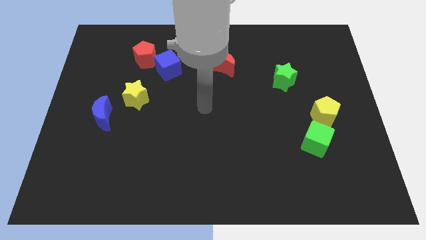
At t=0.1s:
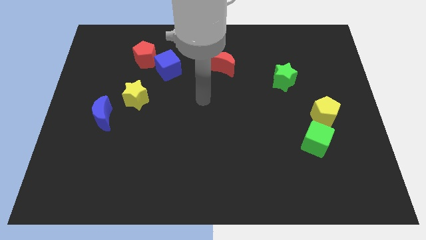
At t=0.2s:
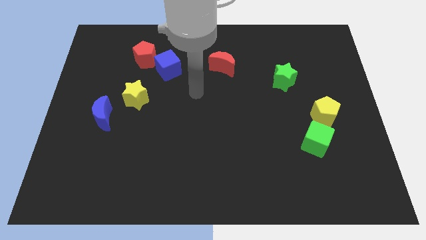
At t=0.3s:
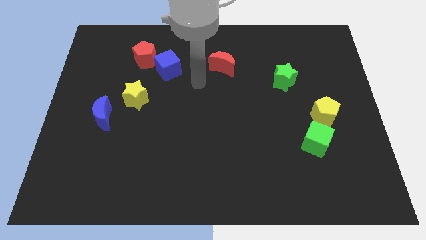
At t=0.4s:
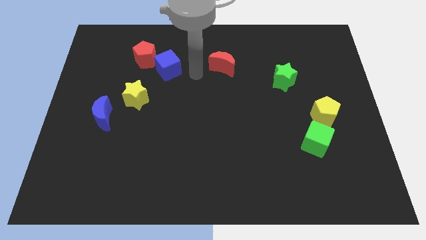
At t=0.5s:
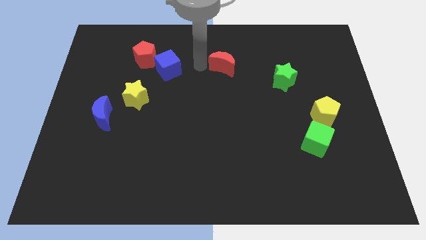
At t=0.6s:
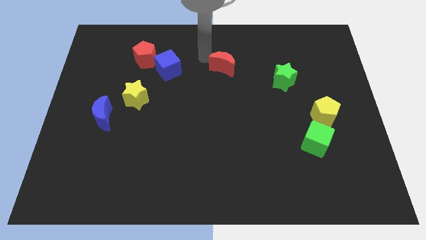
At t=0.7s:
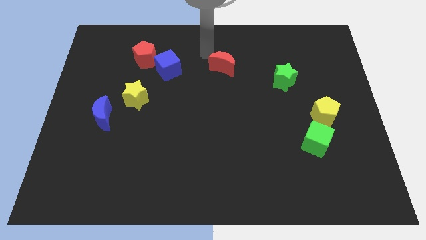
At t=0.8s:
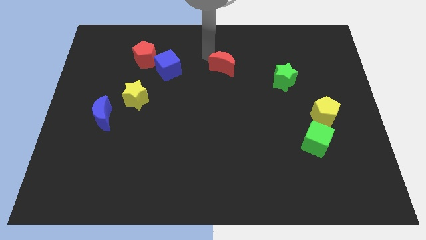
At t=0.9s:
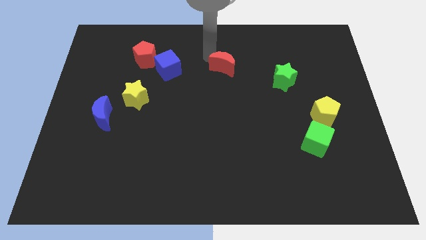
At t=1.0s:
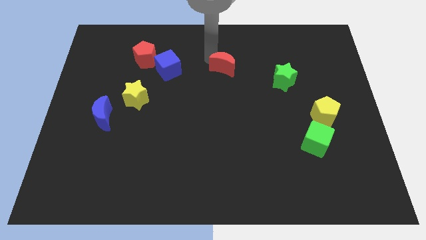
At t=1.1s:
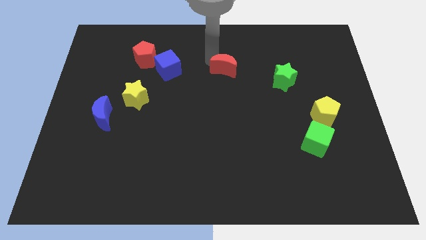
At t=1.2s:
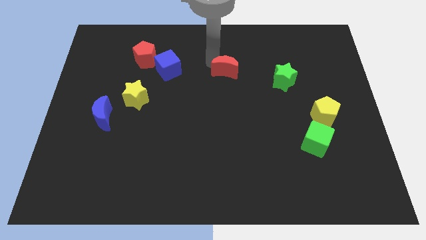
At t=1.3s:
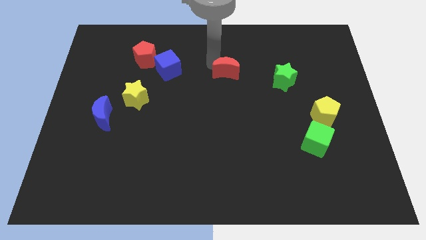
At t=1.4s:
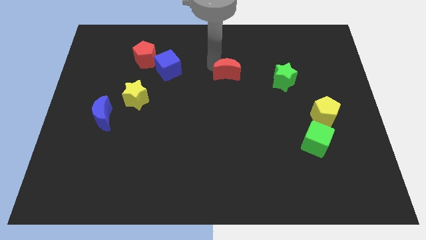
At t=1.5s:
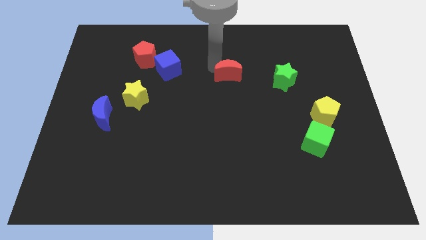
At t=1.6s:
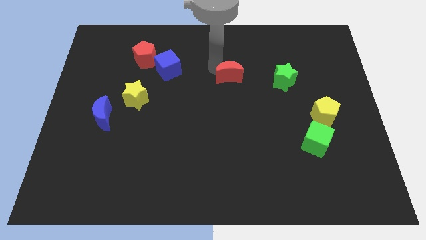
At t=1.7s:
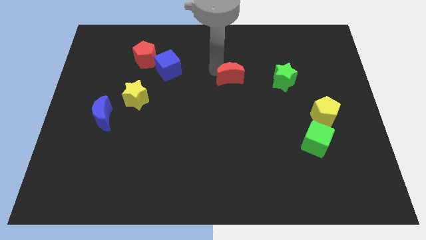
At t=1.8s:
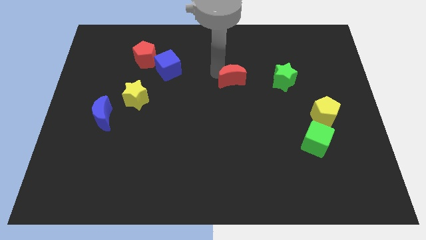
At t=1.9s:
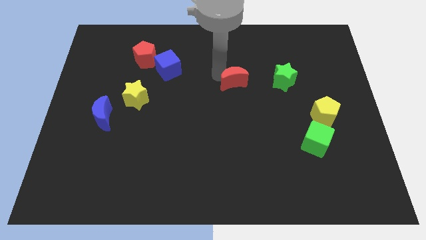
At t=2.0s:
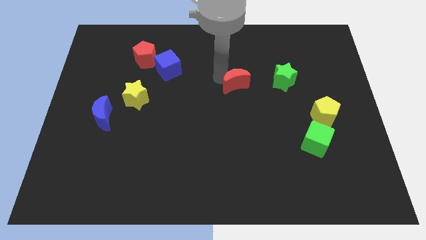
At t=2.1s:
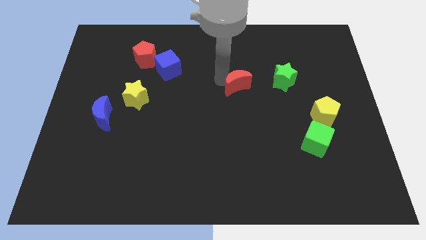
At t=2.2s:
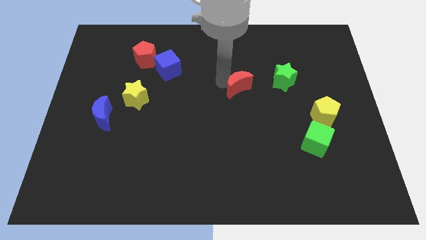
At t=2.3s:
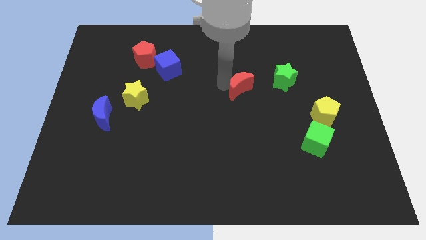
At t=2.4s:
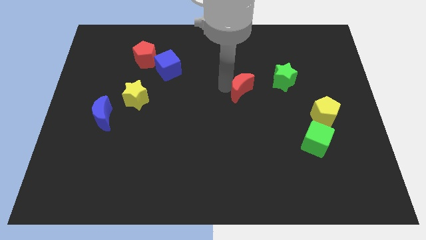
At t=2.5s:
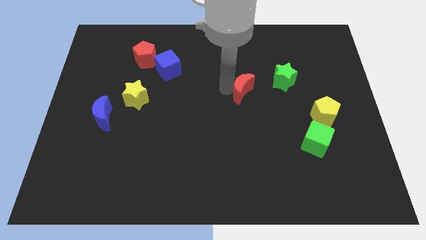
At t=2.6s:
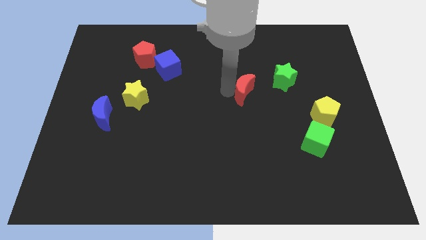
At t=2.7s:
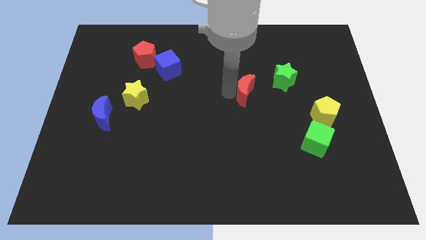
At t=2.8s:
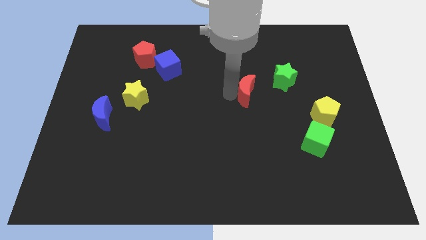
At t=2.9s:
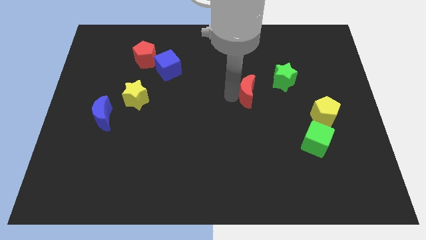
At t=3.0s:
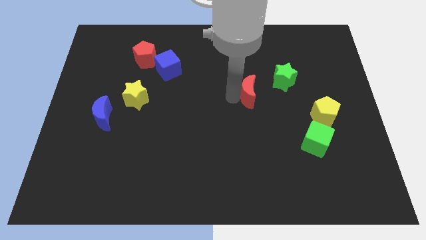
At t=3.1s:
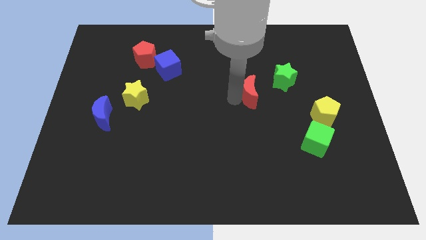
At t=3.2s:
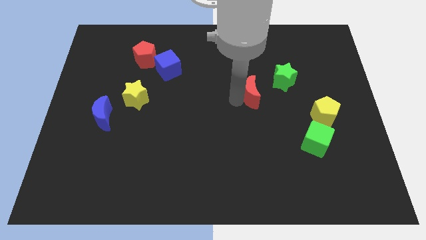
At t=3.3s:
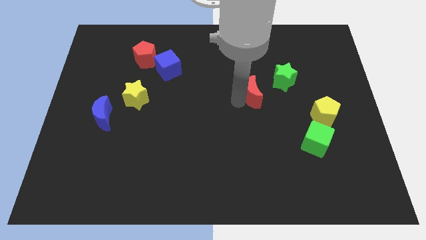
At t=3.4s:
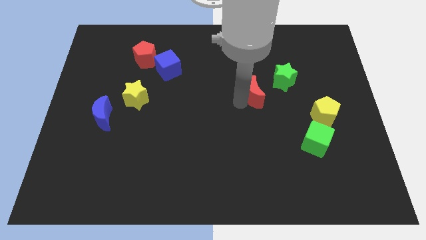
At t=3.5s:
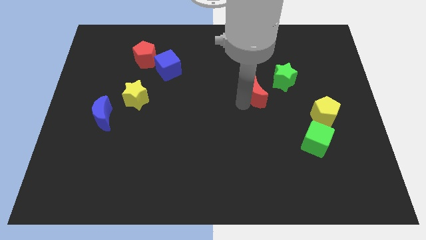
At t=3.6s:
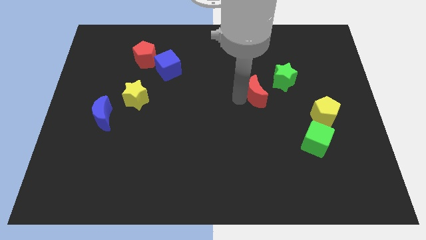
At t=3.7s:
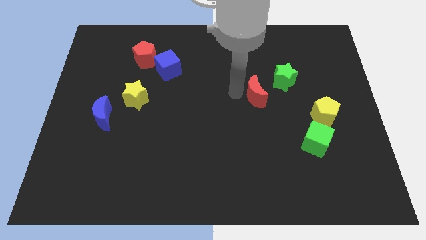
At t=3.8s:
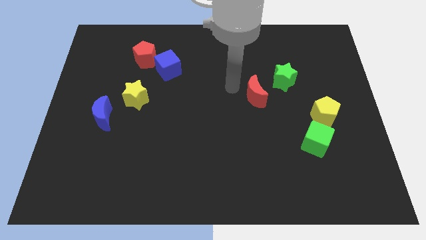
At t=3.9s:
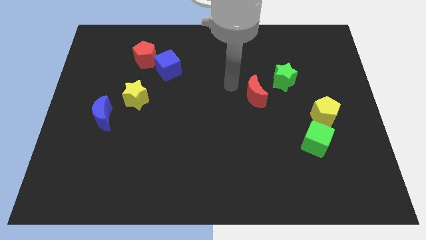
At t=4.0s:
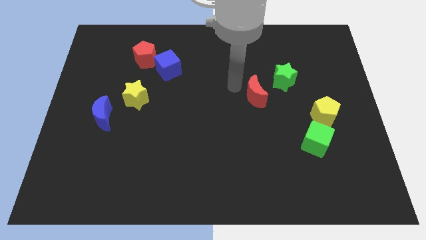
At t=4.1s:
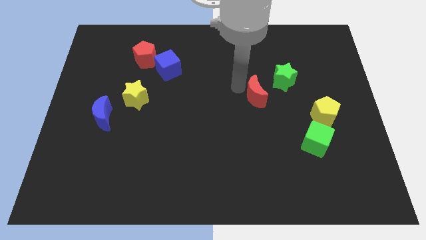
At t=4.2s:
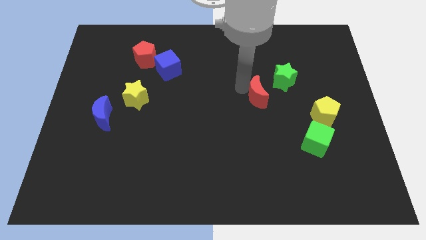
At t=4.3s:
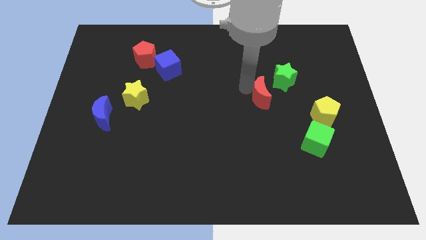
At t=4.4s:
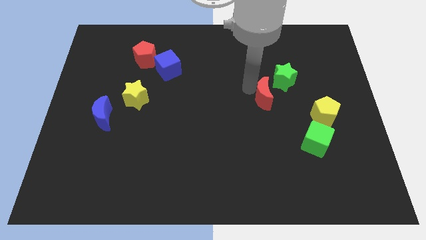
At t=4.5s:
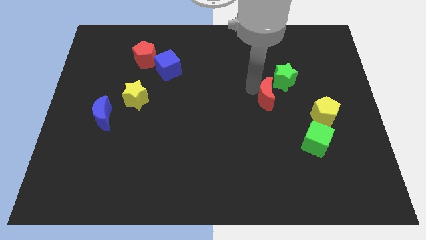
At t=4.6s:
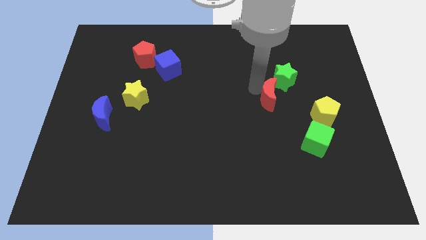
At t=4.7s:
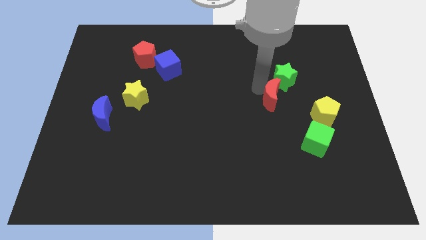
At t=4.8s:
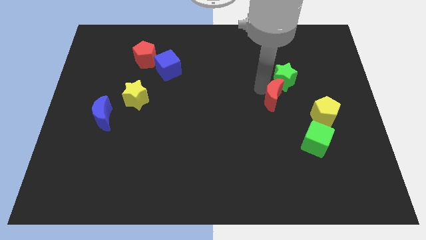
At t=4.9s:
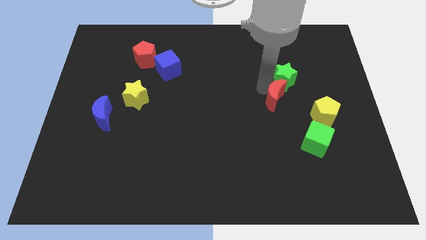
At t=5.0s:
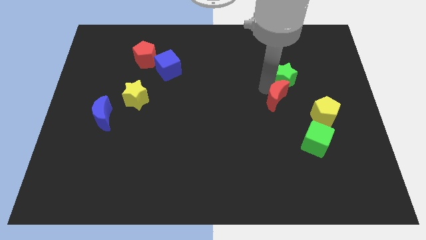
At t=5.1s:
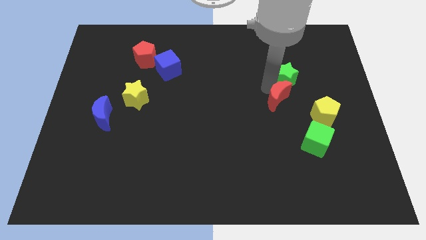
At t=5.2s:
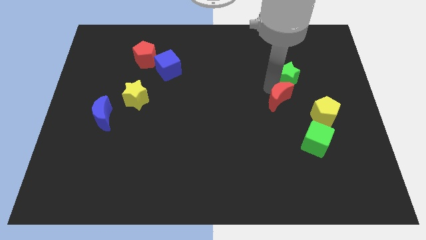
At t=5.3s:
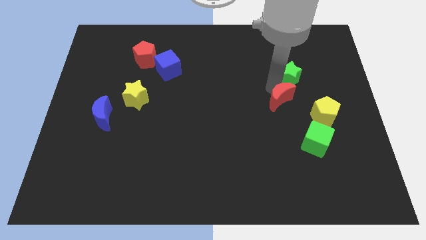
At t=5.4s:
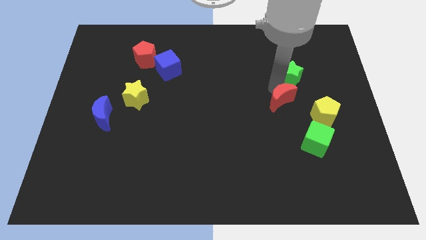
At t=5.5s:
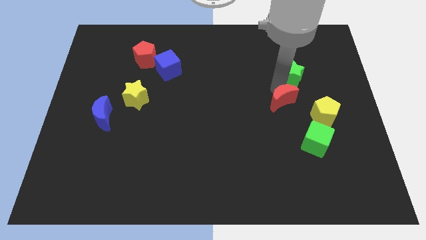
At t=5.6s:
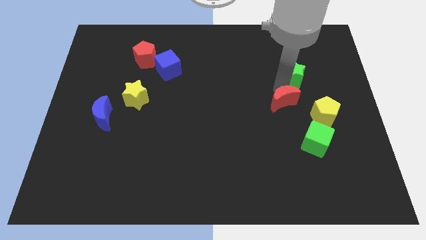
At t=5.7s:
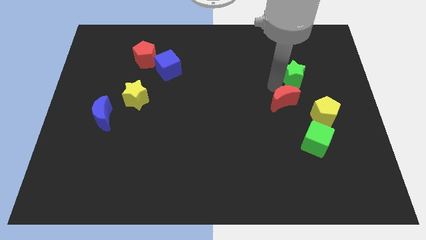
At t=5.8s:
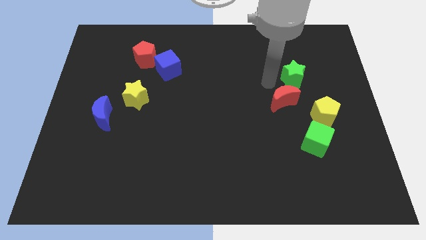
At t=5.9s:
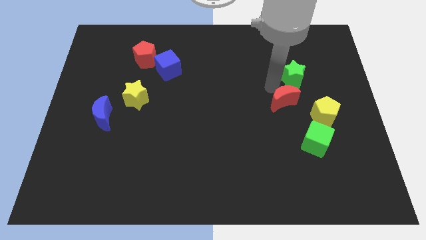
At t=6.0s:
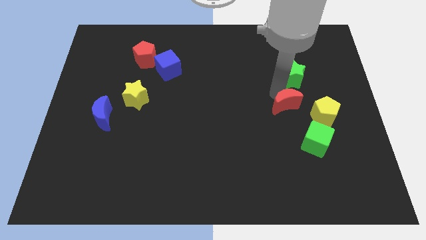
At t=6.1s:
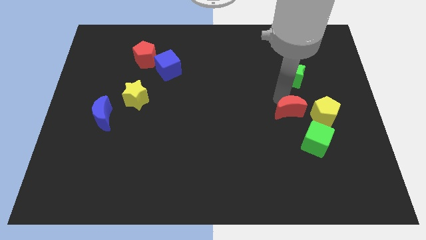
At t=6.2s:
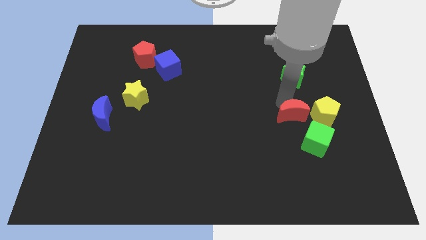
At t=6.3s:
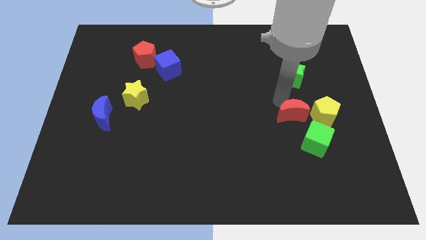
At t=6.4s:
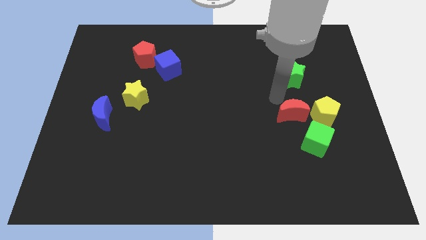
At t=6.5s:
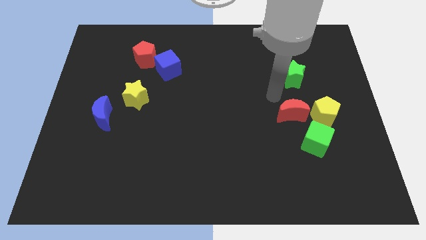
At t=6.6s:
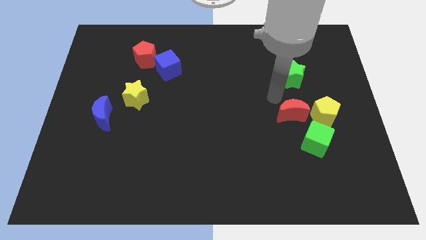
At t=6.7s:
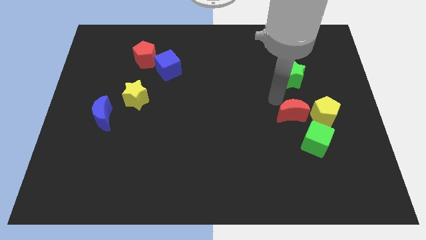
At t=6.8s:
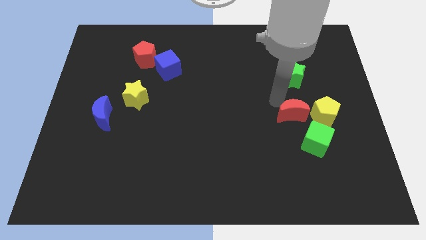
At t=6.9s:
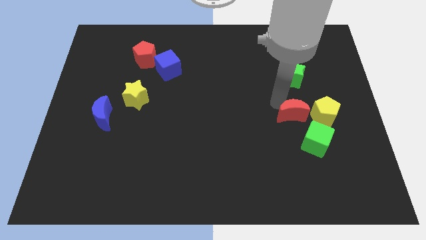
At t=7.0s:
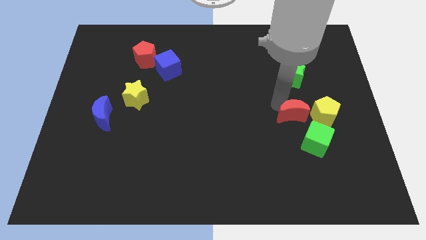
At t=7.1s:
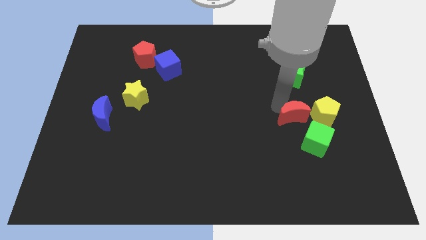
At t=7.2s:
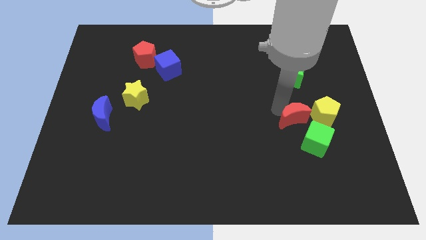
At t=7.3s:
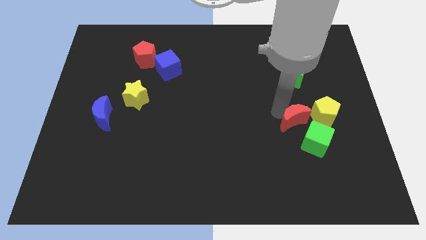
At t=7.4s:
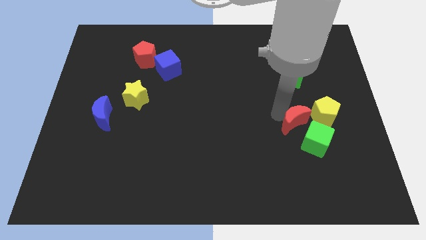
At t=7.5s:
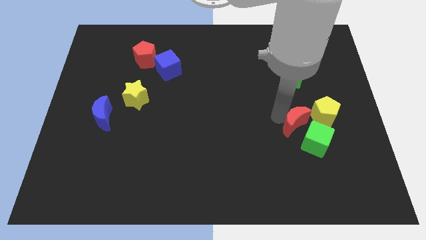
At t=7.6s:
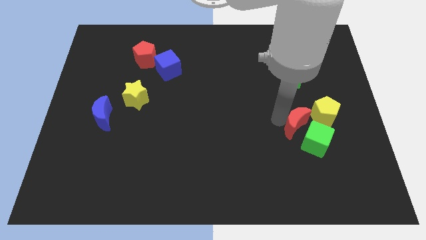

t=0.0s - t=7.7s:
put the red moon close to the green cube
